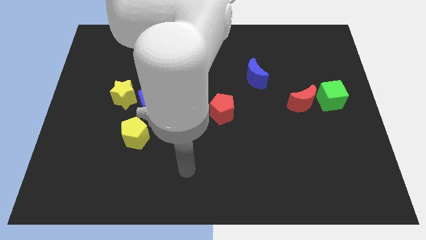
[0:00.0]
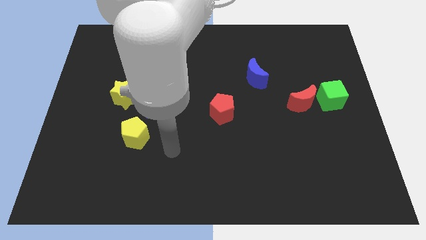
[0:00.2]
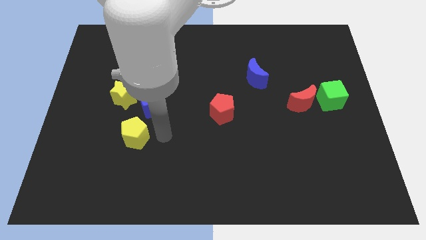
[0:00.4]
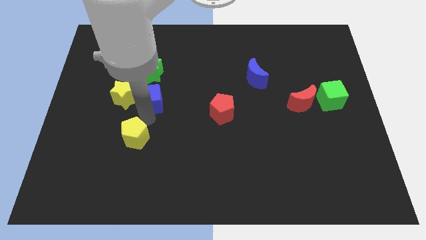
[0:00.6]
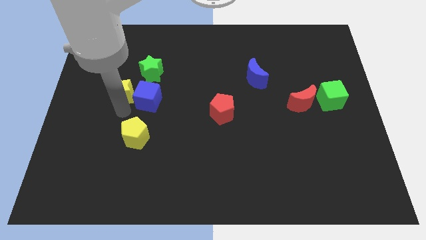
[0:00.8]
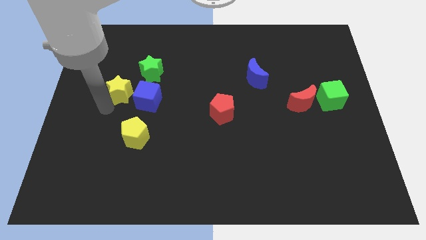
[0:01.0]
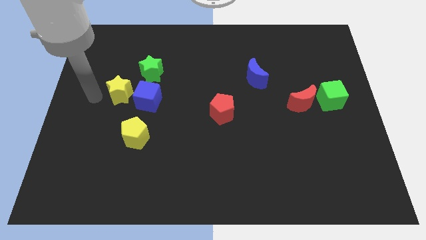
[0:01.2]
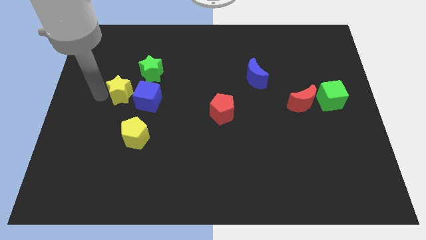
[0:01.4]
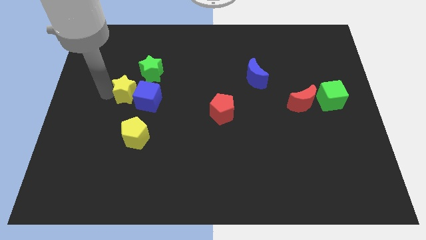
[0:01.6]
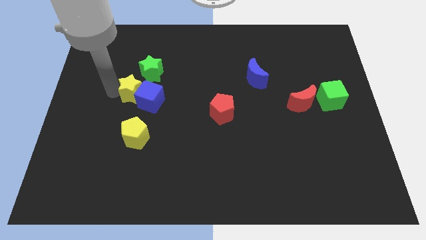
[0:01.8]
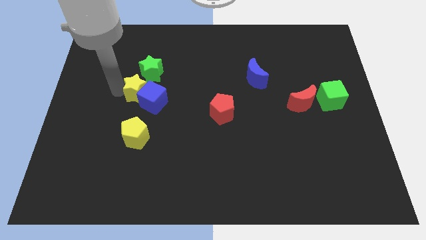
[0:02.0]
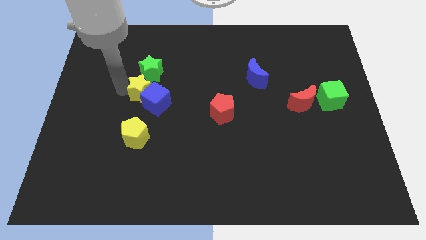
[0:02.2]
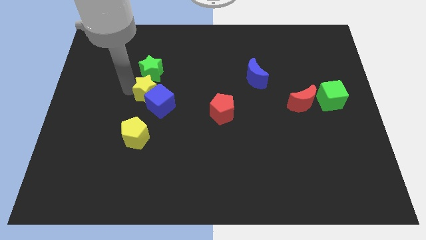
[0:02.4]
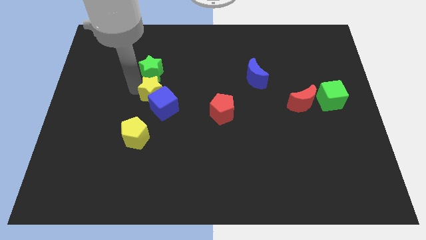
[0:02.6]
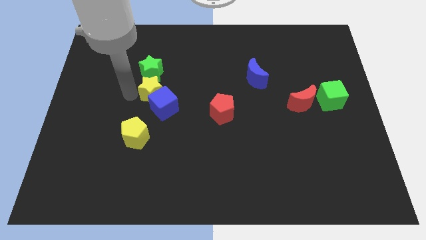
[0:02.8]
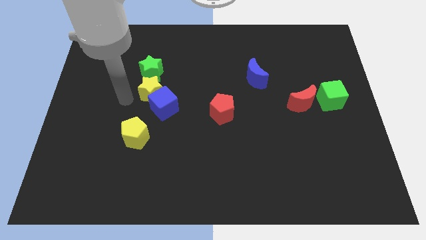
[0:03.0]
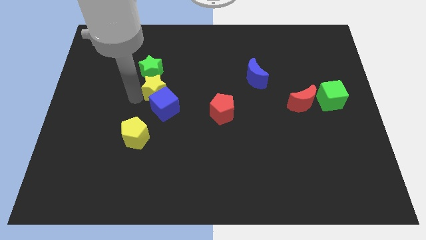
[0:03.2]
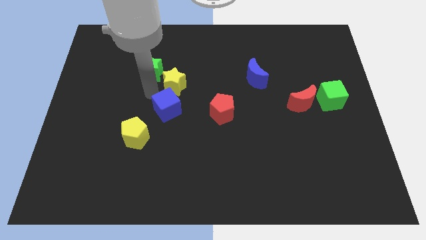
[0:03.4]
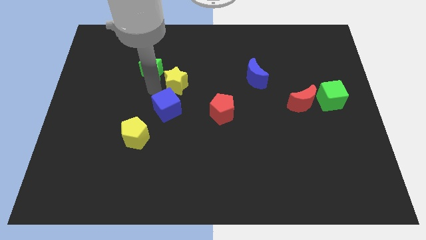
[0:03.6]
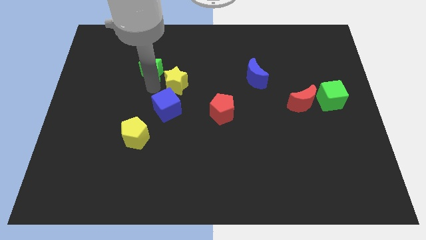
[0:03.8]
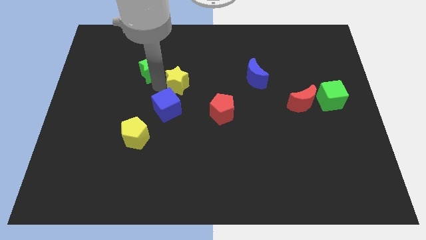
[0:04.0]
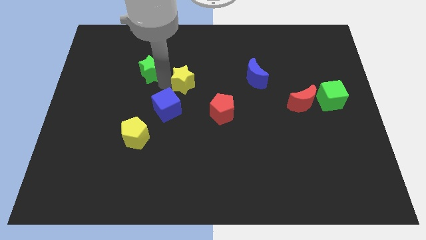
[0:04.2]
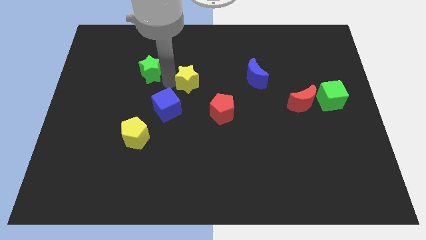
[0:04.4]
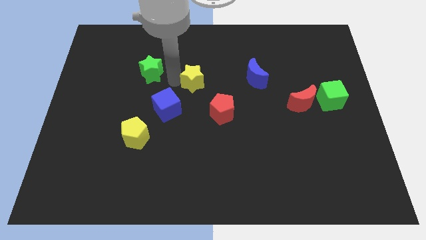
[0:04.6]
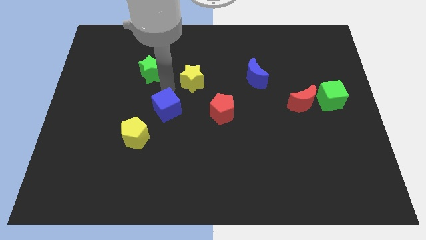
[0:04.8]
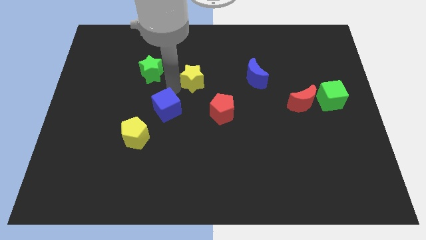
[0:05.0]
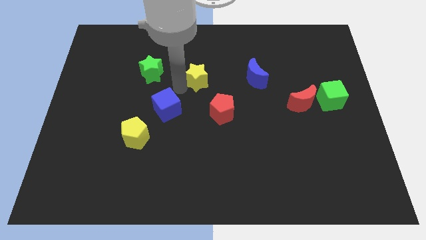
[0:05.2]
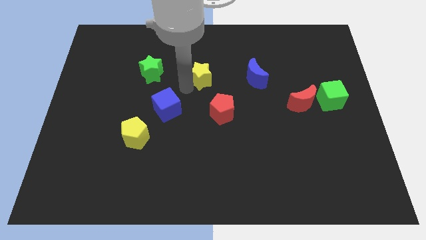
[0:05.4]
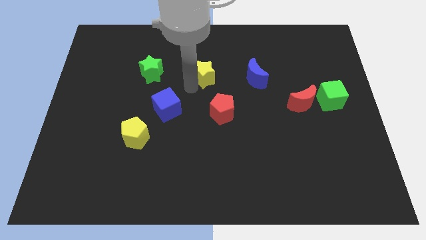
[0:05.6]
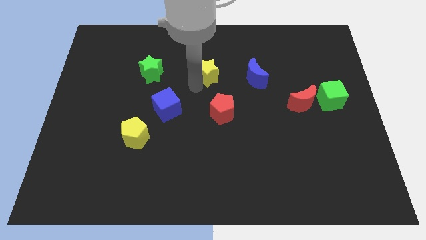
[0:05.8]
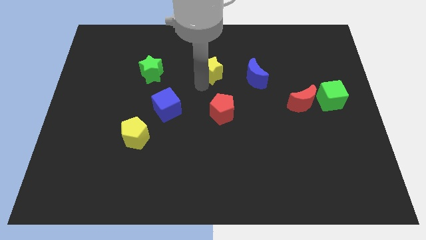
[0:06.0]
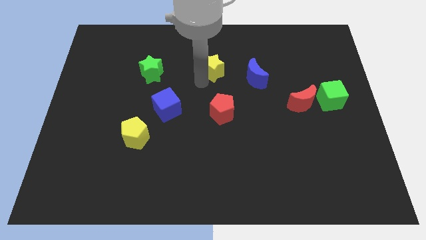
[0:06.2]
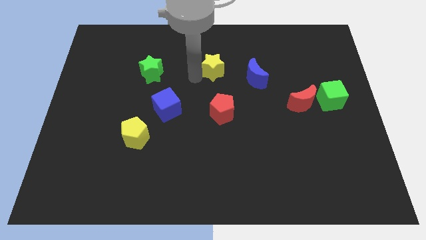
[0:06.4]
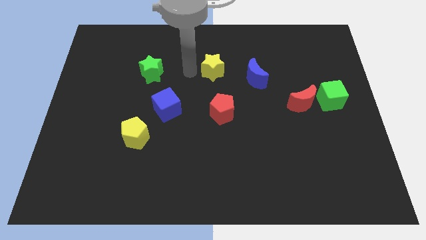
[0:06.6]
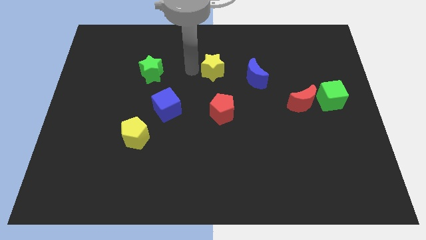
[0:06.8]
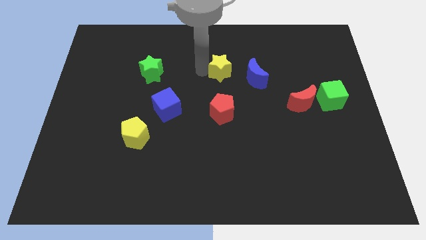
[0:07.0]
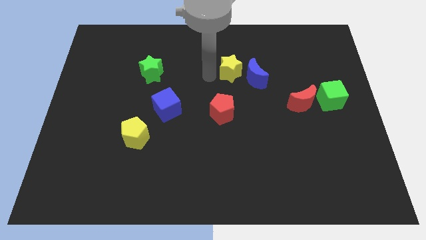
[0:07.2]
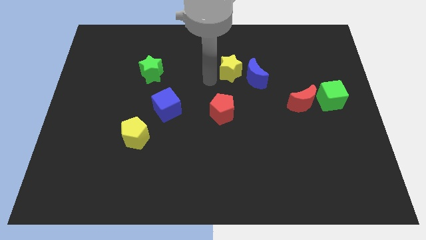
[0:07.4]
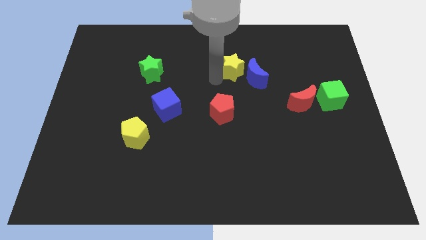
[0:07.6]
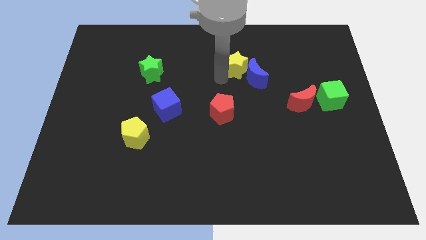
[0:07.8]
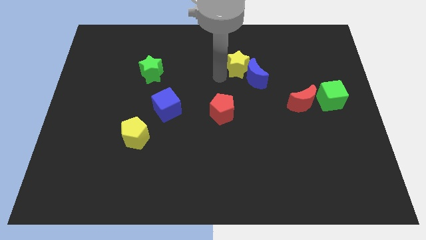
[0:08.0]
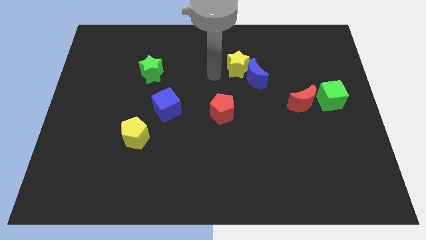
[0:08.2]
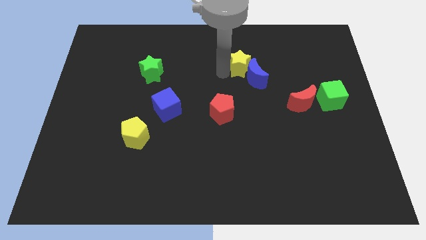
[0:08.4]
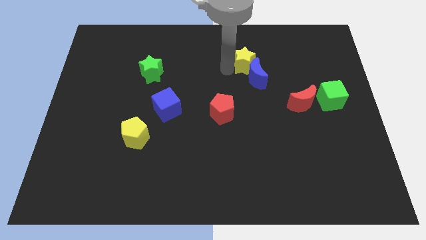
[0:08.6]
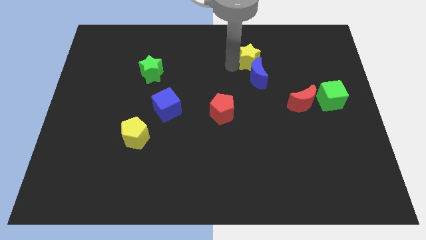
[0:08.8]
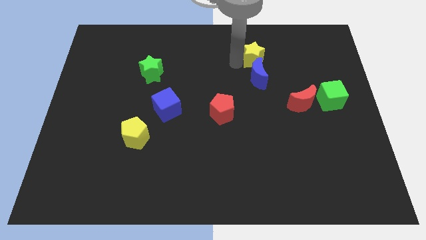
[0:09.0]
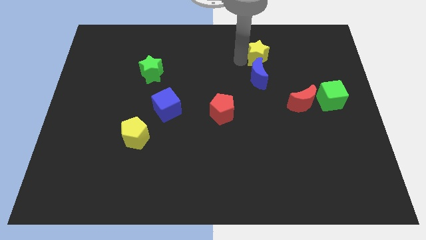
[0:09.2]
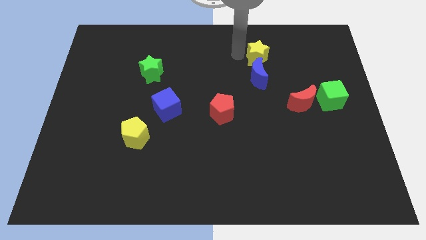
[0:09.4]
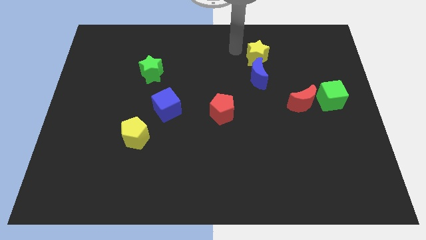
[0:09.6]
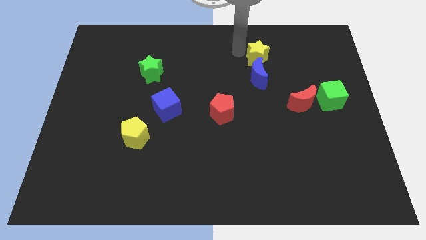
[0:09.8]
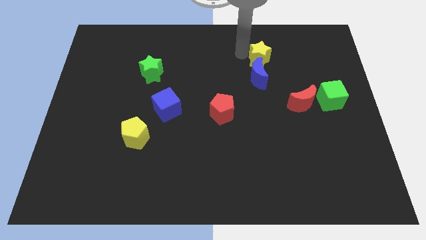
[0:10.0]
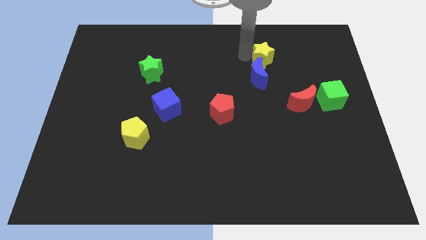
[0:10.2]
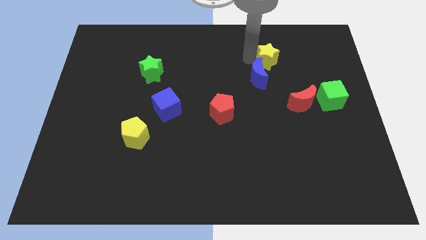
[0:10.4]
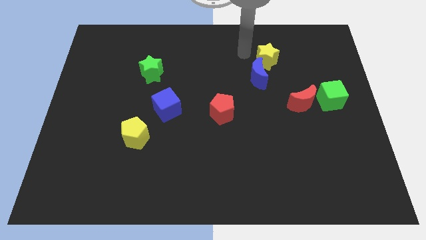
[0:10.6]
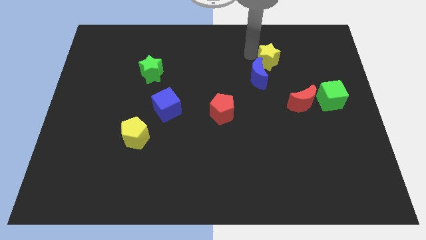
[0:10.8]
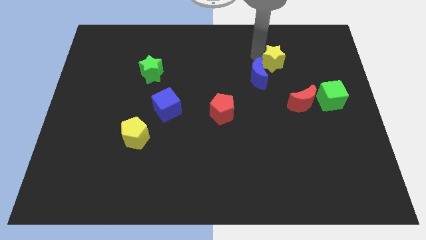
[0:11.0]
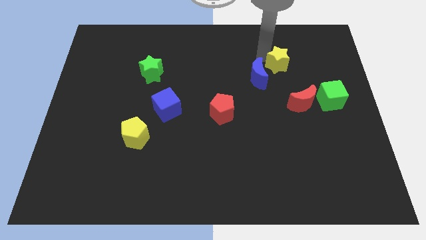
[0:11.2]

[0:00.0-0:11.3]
push the yellow star to the top side of the red moon

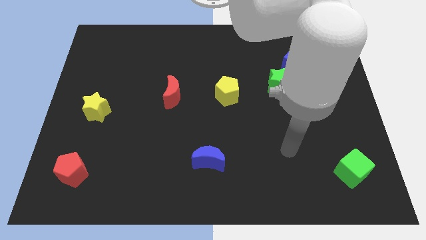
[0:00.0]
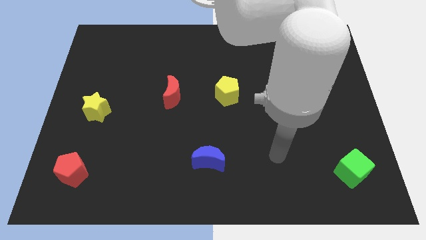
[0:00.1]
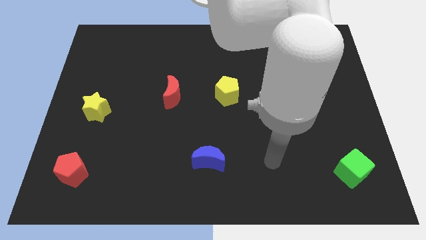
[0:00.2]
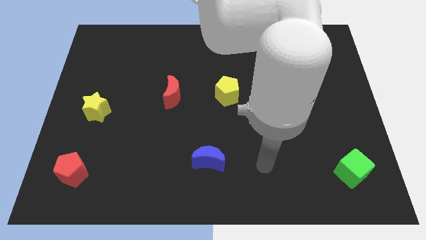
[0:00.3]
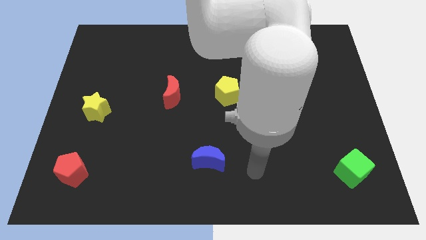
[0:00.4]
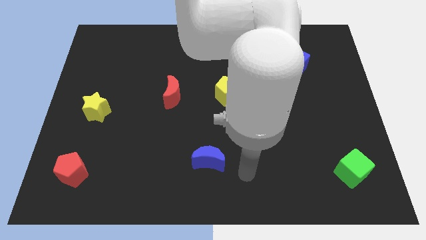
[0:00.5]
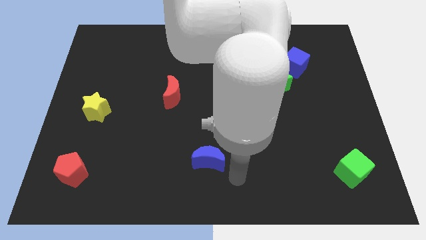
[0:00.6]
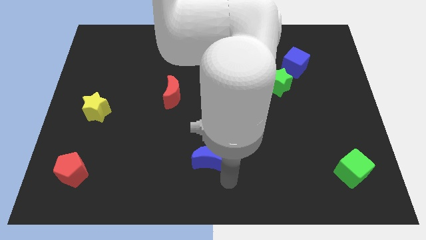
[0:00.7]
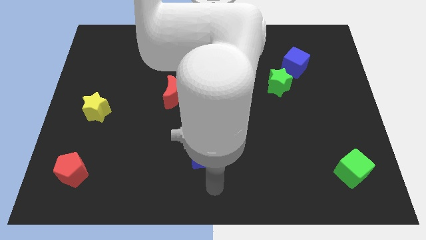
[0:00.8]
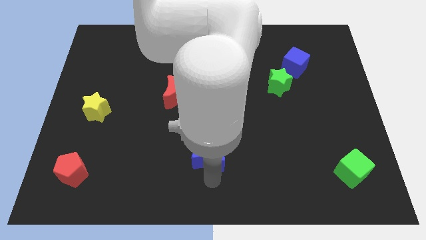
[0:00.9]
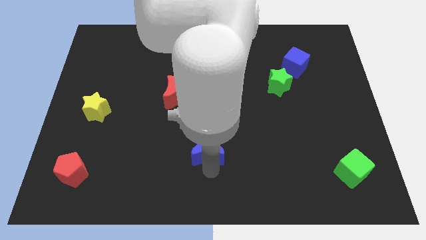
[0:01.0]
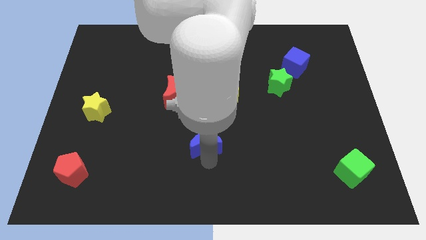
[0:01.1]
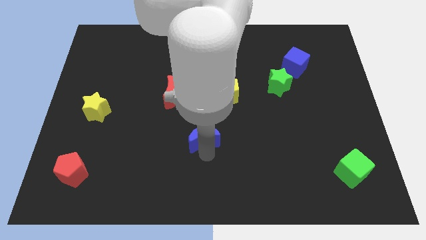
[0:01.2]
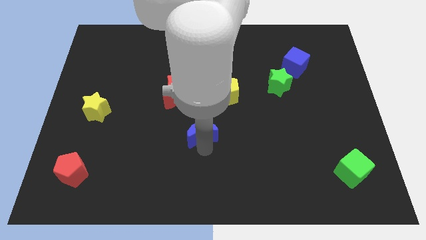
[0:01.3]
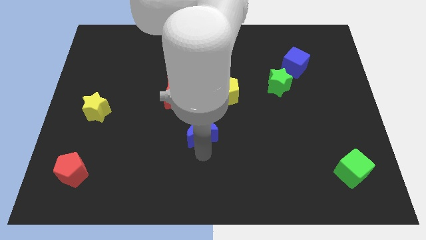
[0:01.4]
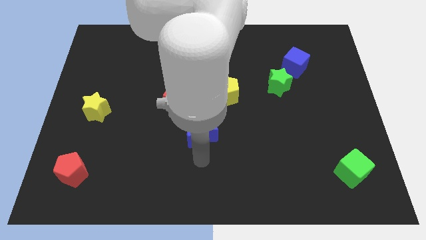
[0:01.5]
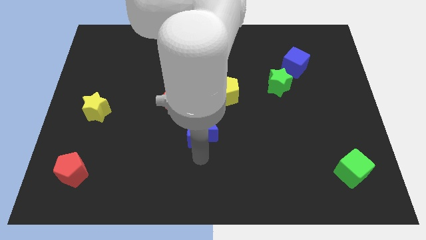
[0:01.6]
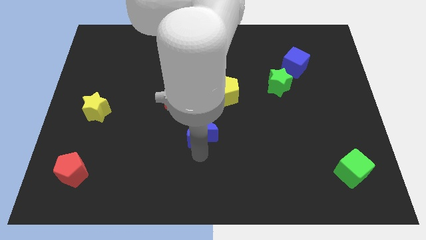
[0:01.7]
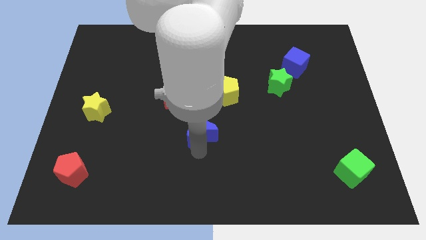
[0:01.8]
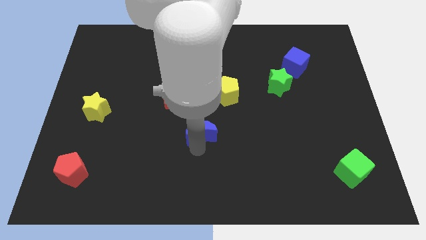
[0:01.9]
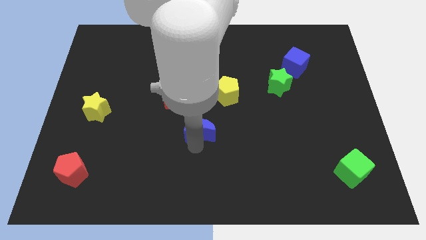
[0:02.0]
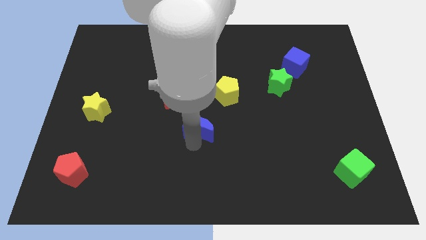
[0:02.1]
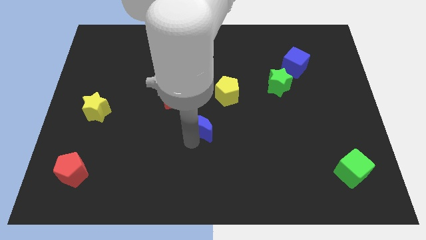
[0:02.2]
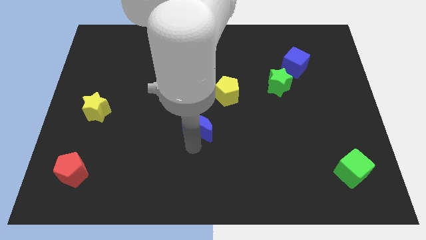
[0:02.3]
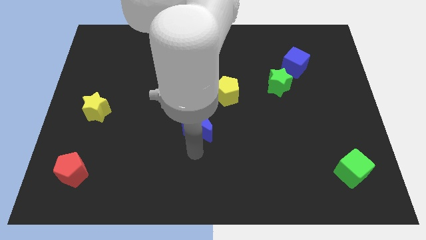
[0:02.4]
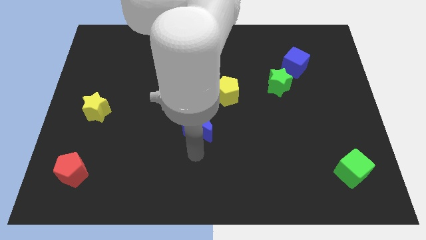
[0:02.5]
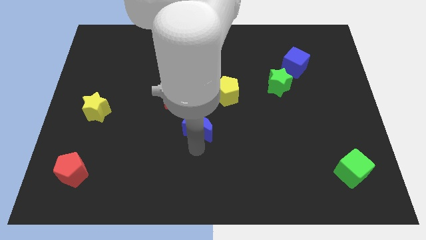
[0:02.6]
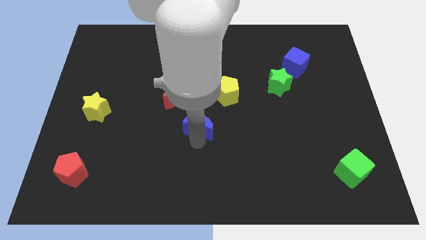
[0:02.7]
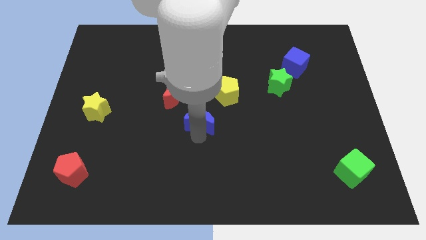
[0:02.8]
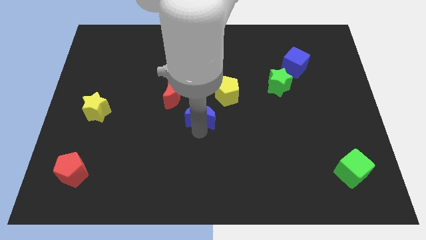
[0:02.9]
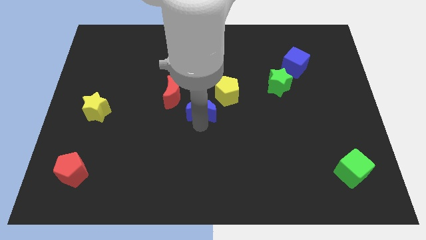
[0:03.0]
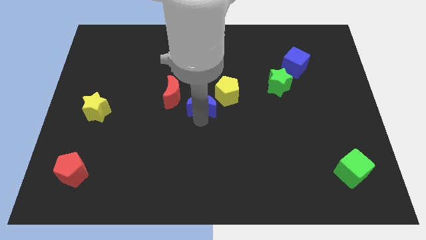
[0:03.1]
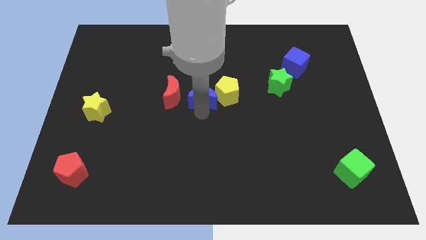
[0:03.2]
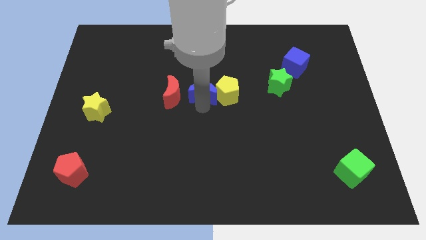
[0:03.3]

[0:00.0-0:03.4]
put the blue moon to the top left side of the yellow pentagon
